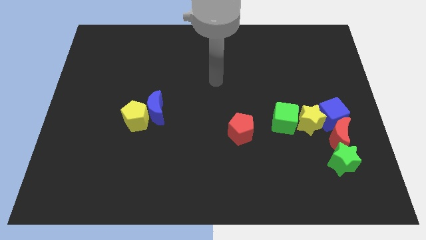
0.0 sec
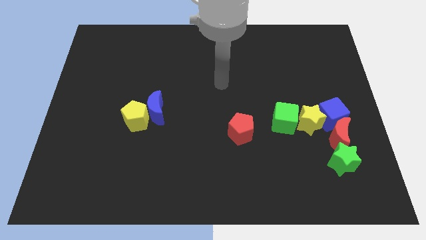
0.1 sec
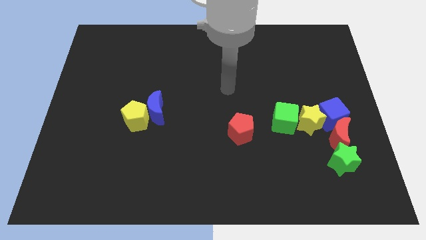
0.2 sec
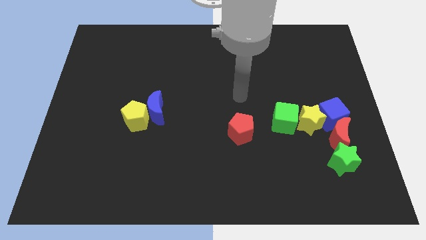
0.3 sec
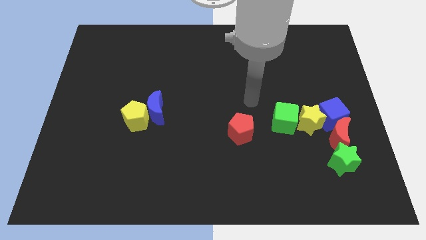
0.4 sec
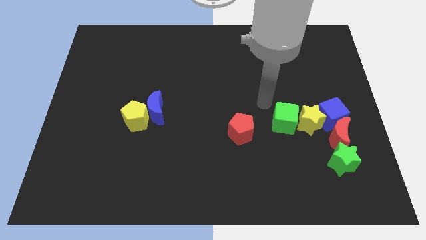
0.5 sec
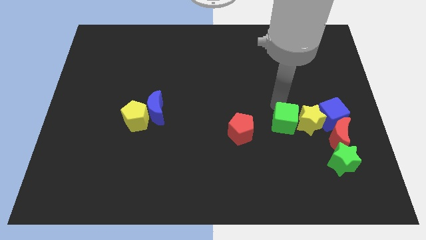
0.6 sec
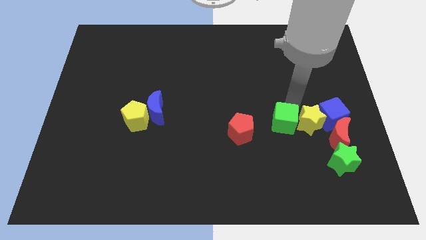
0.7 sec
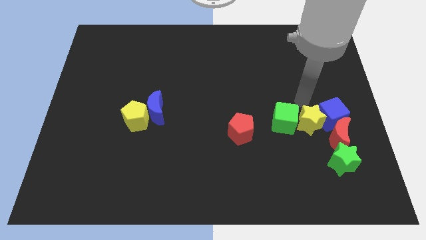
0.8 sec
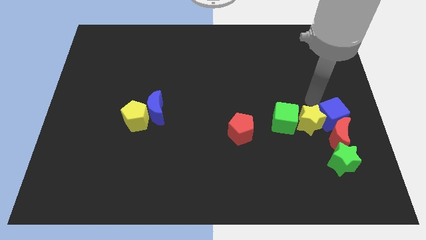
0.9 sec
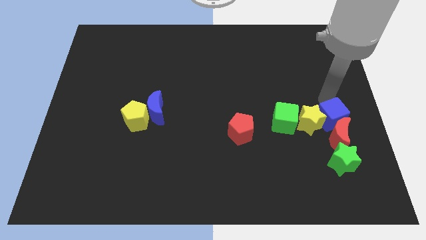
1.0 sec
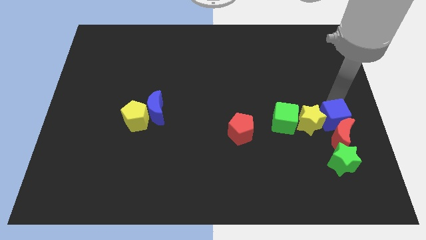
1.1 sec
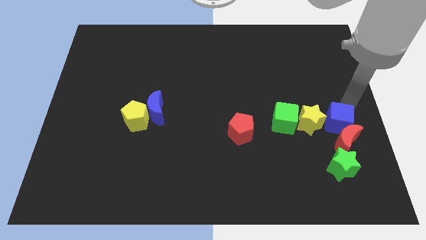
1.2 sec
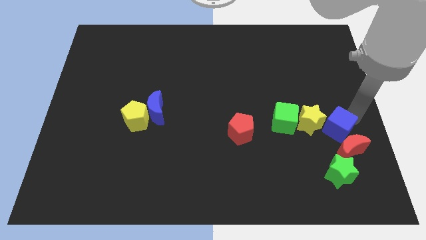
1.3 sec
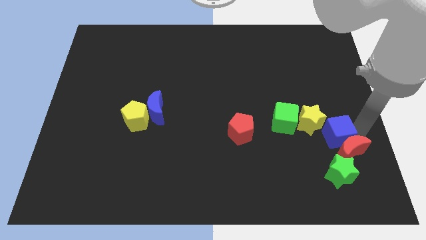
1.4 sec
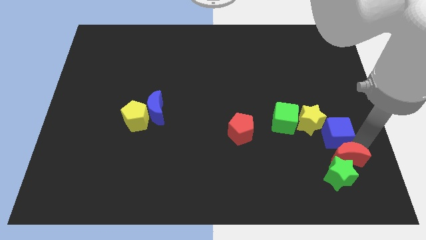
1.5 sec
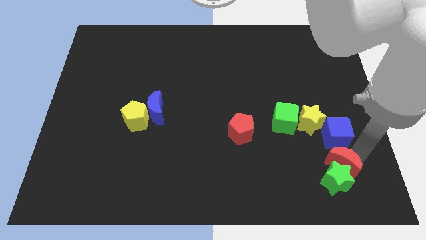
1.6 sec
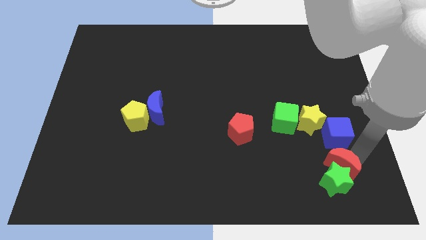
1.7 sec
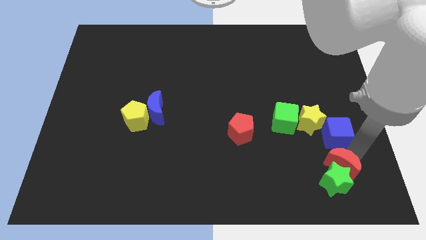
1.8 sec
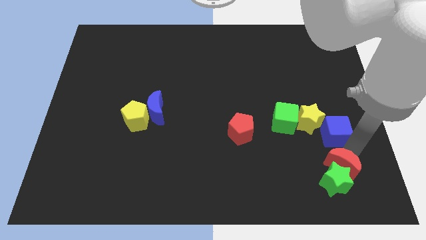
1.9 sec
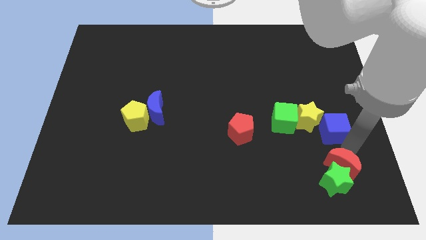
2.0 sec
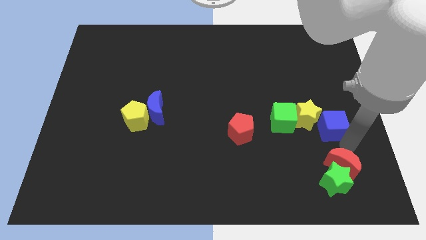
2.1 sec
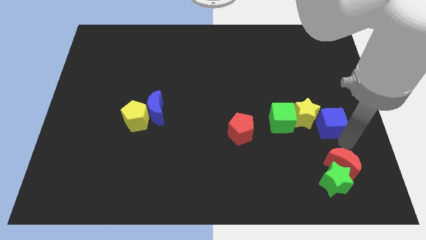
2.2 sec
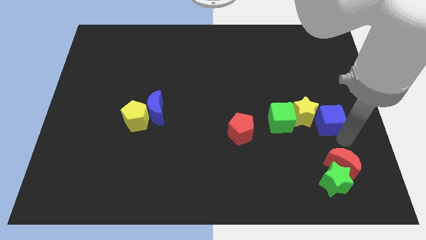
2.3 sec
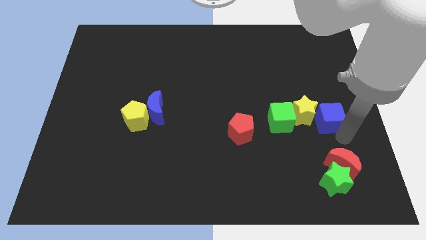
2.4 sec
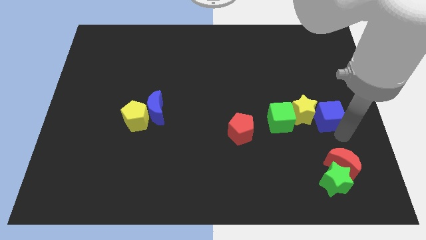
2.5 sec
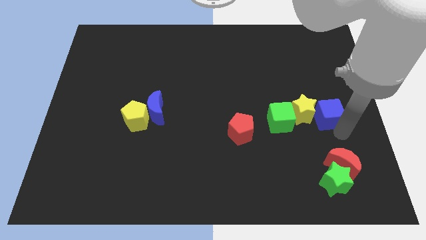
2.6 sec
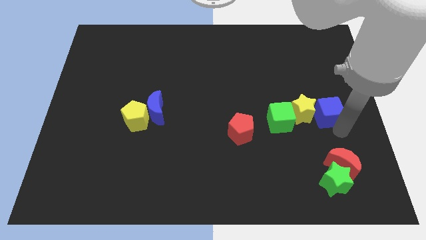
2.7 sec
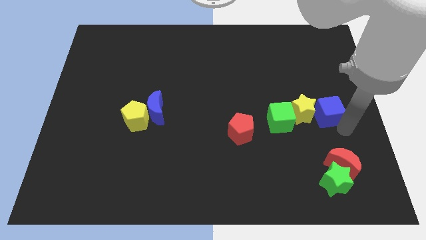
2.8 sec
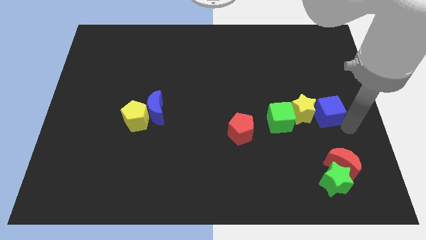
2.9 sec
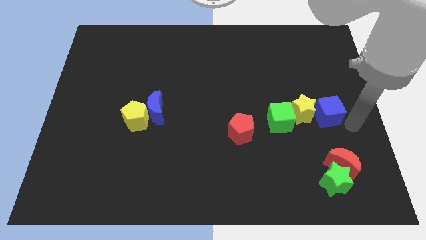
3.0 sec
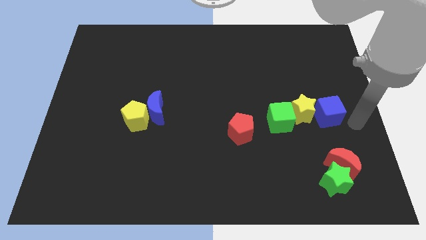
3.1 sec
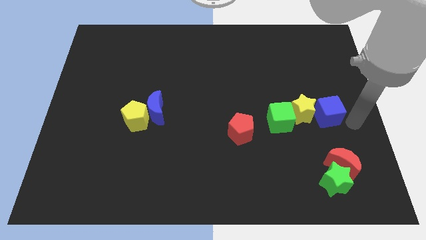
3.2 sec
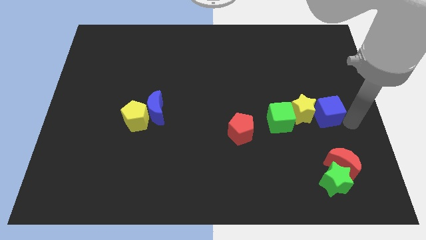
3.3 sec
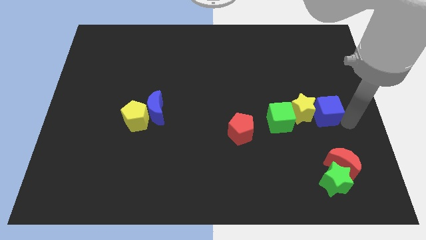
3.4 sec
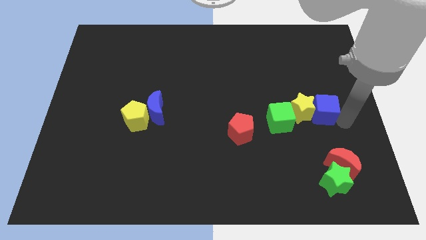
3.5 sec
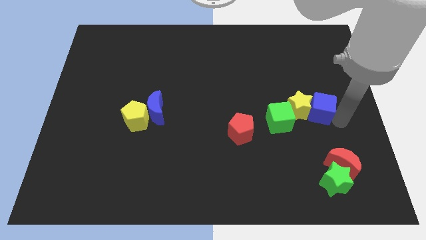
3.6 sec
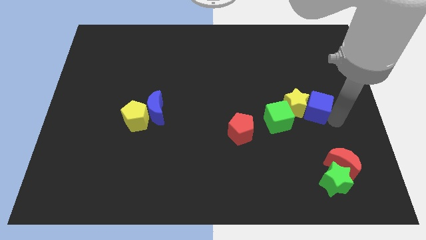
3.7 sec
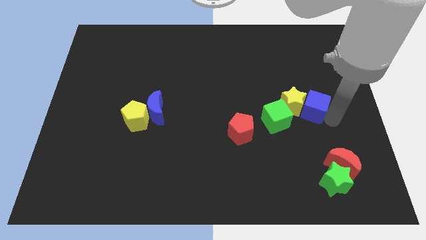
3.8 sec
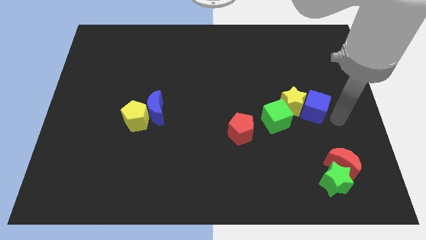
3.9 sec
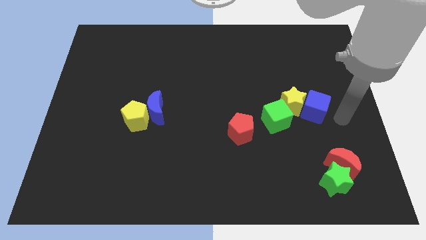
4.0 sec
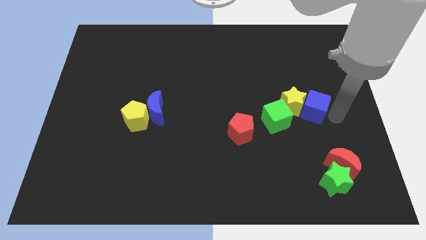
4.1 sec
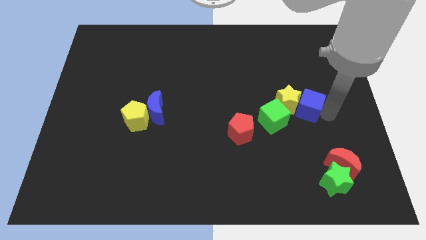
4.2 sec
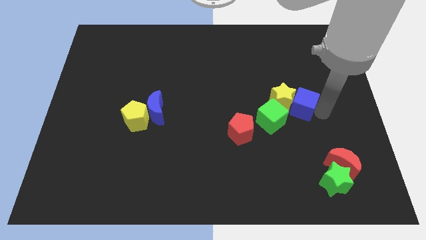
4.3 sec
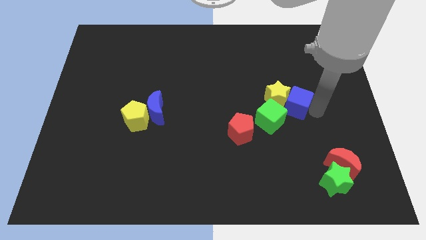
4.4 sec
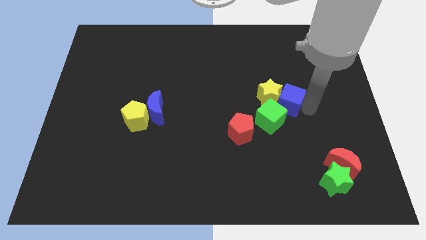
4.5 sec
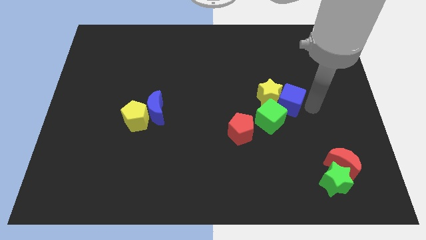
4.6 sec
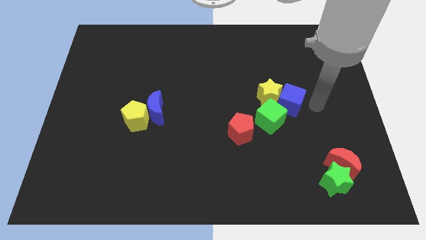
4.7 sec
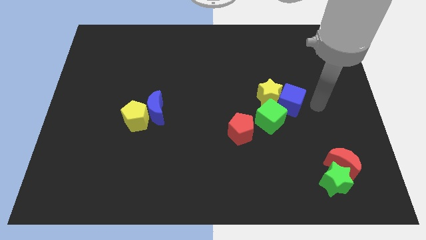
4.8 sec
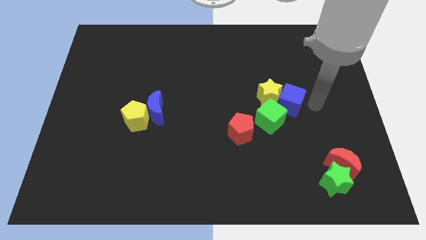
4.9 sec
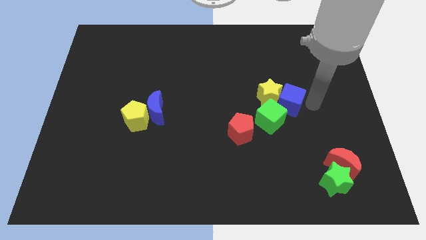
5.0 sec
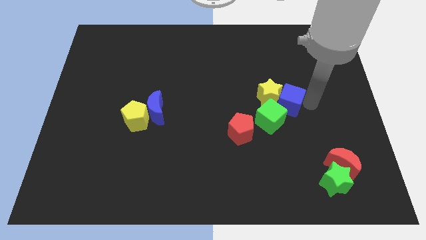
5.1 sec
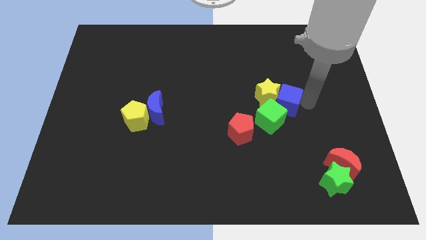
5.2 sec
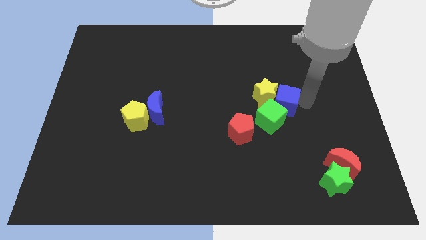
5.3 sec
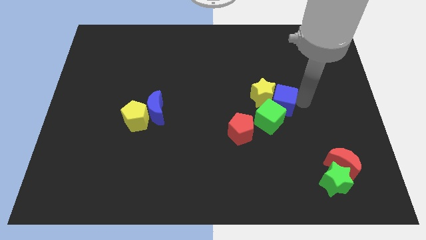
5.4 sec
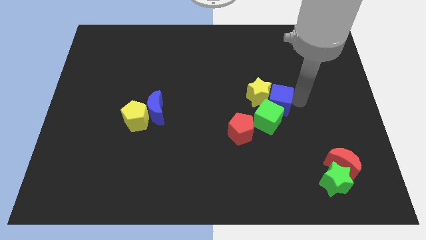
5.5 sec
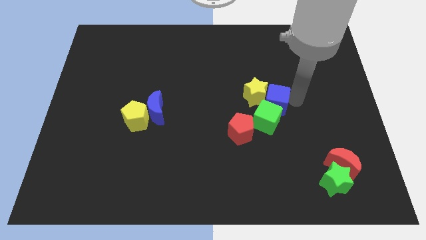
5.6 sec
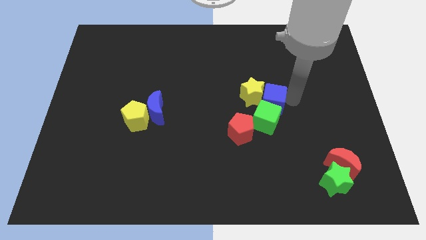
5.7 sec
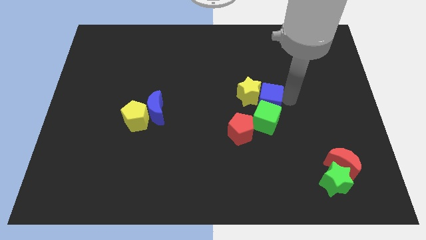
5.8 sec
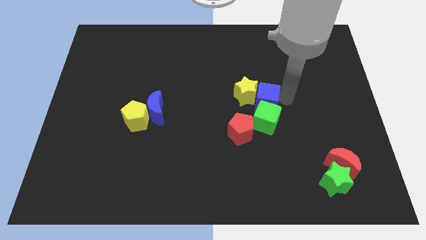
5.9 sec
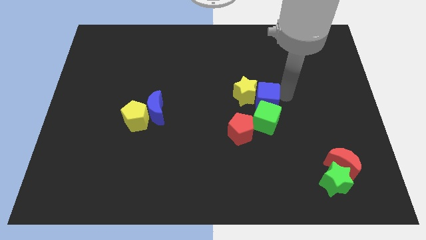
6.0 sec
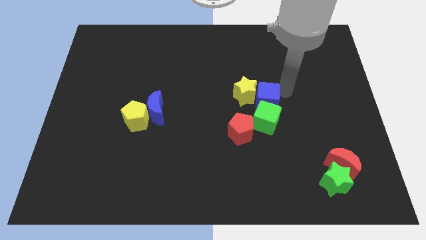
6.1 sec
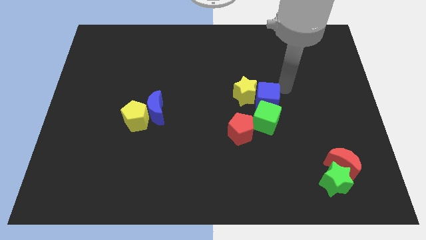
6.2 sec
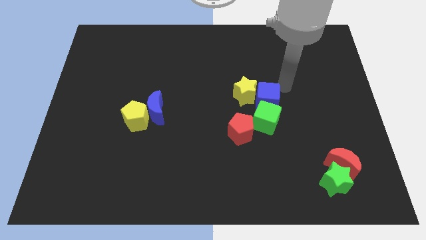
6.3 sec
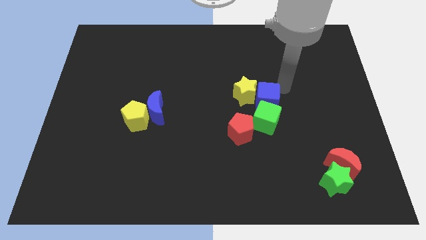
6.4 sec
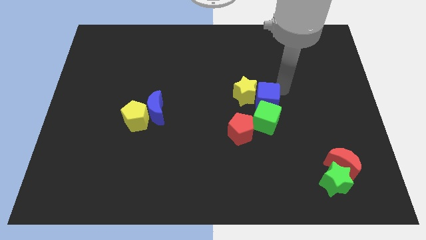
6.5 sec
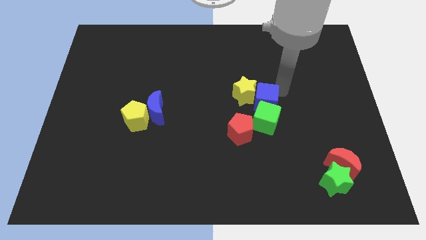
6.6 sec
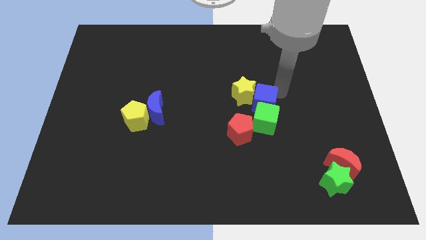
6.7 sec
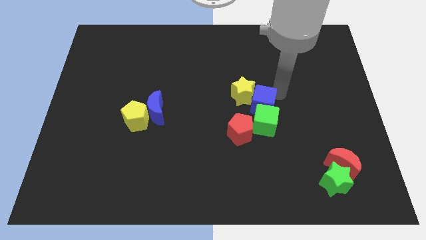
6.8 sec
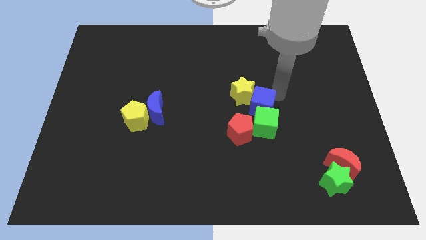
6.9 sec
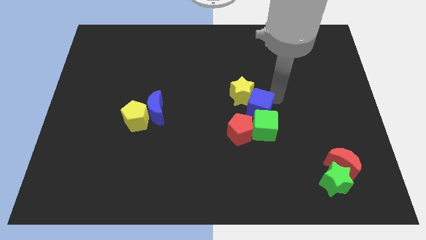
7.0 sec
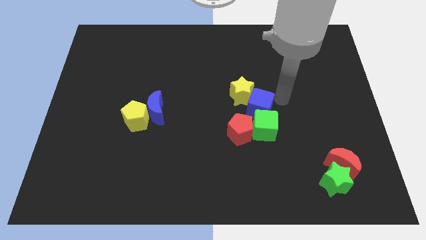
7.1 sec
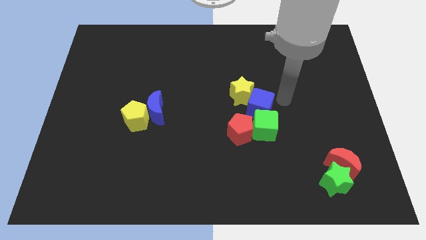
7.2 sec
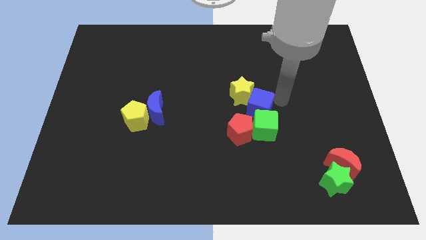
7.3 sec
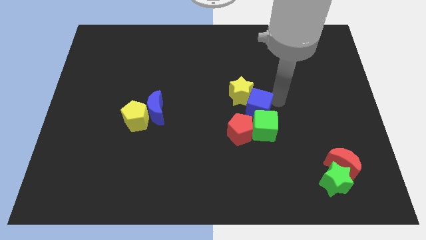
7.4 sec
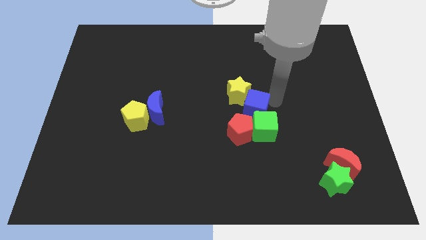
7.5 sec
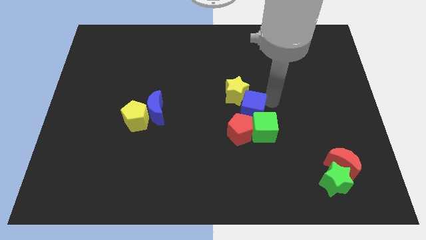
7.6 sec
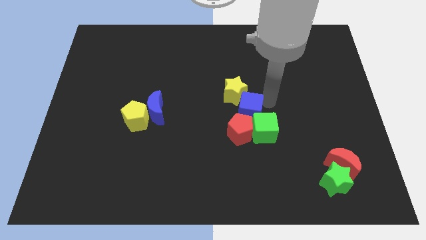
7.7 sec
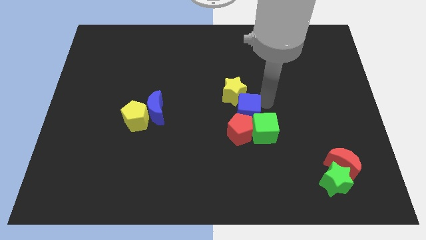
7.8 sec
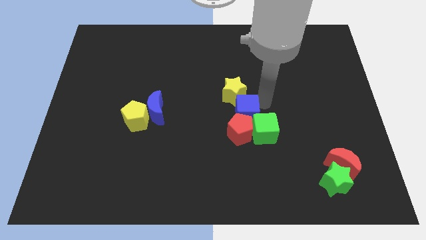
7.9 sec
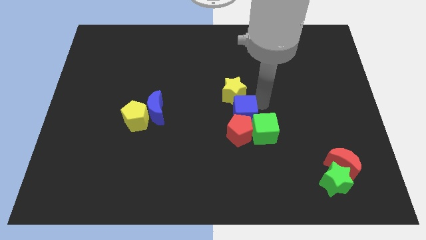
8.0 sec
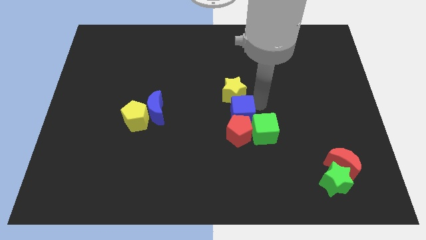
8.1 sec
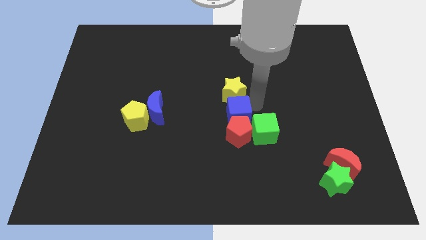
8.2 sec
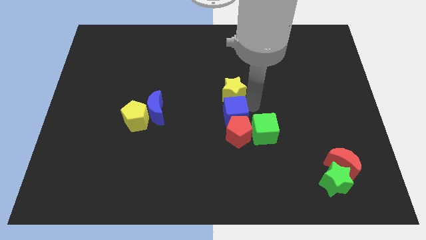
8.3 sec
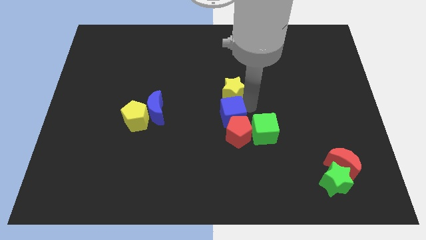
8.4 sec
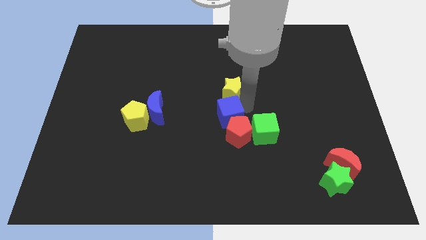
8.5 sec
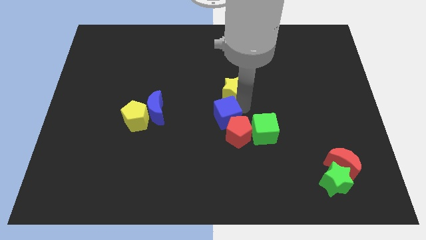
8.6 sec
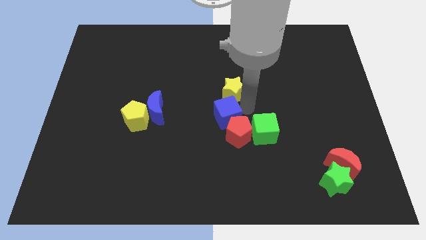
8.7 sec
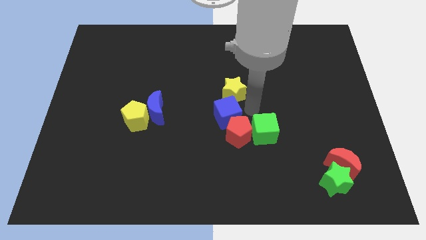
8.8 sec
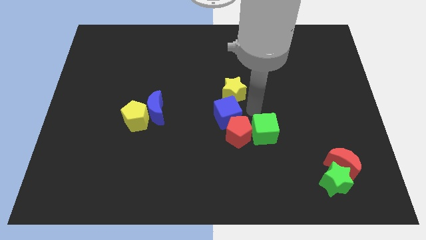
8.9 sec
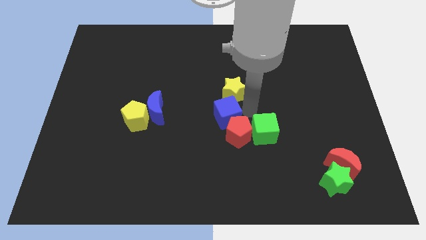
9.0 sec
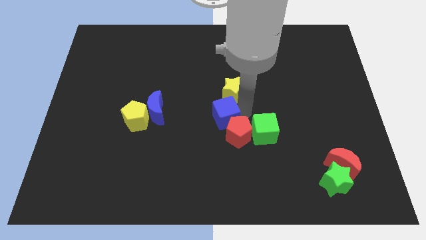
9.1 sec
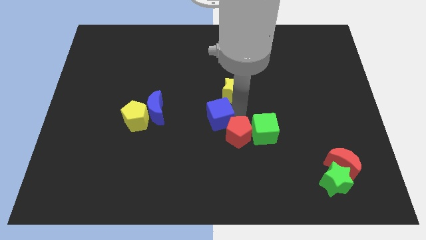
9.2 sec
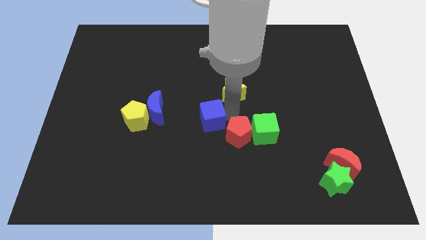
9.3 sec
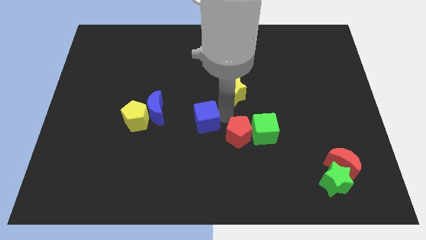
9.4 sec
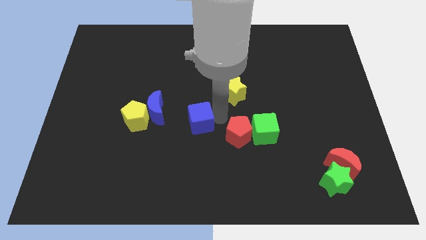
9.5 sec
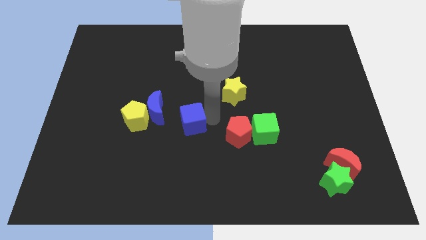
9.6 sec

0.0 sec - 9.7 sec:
move the blue cube diagonally down and to the right of the blue moon
